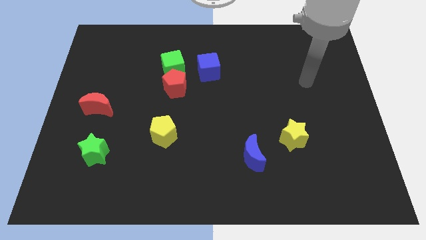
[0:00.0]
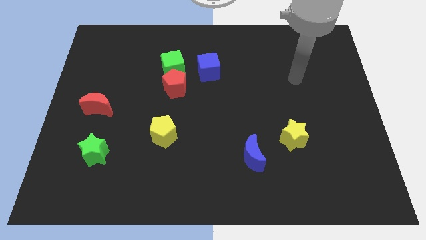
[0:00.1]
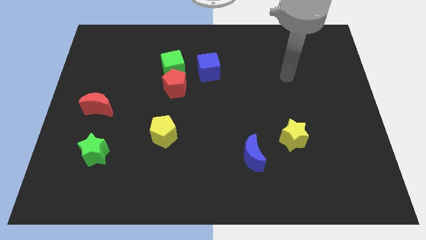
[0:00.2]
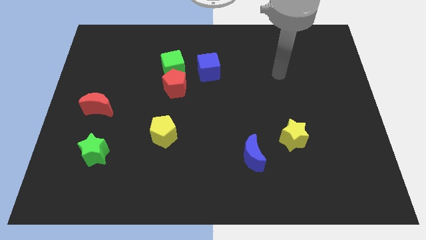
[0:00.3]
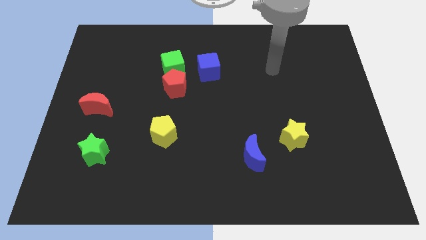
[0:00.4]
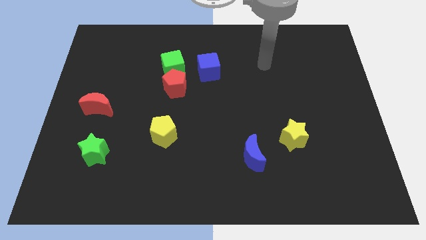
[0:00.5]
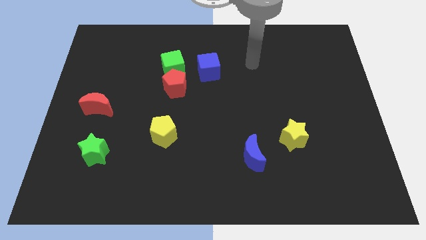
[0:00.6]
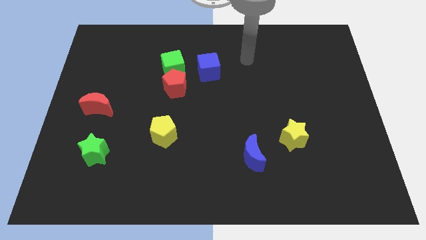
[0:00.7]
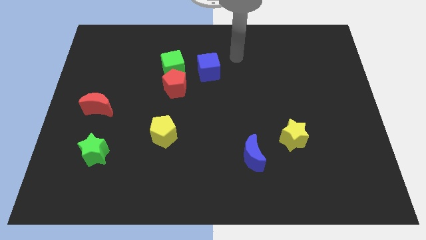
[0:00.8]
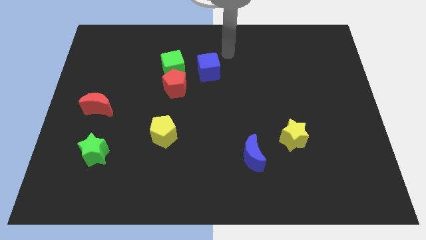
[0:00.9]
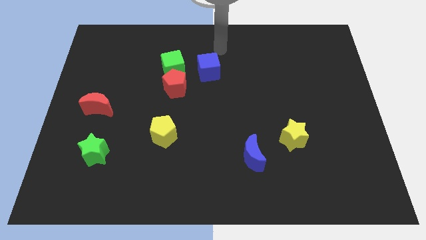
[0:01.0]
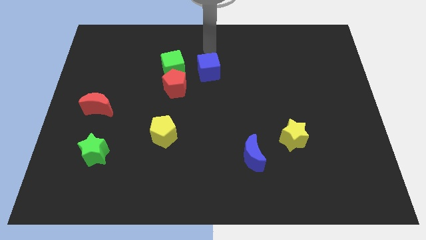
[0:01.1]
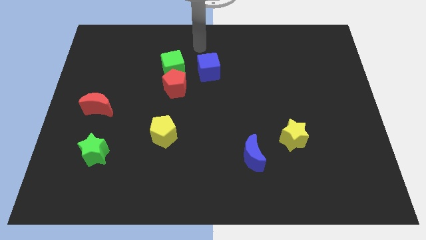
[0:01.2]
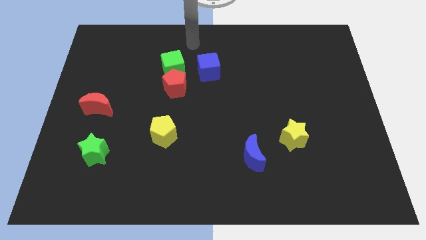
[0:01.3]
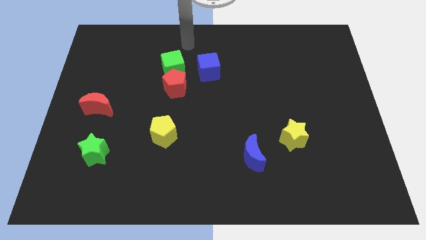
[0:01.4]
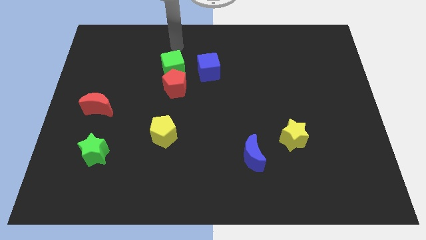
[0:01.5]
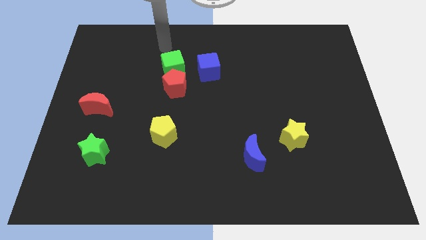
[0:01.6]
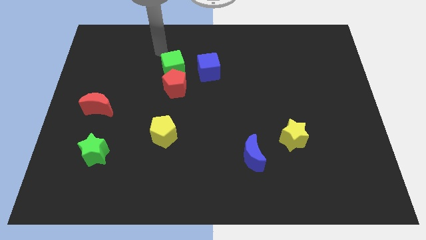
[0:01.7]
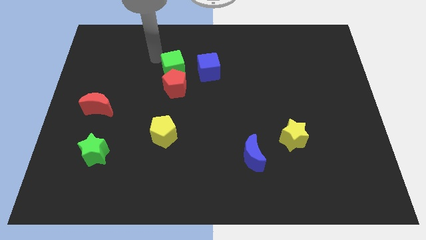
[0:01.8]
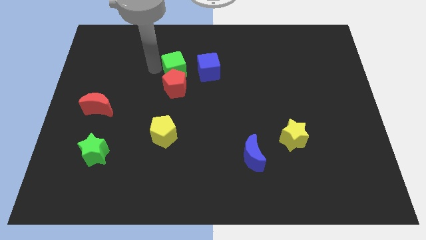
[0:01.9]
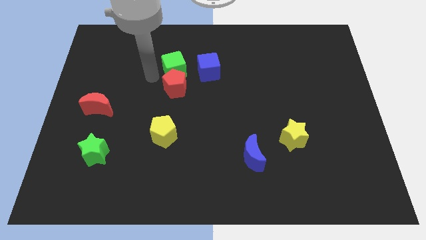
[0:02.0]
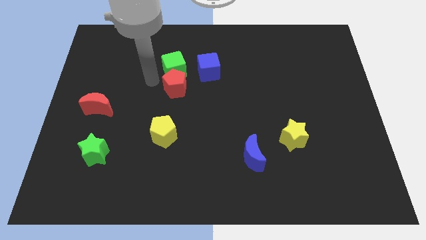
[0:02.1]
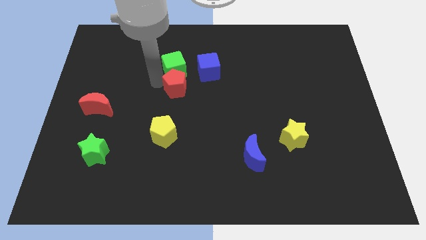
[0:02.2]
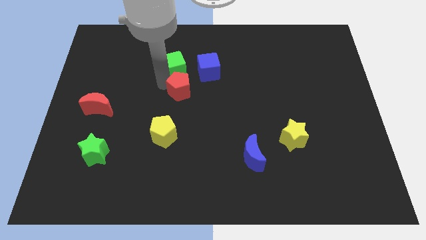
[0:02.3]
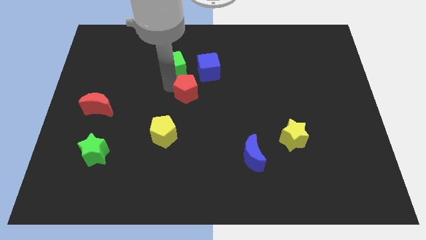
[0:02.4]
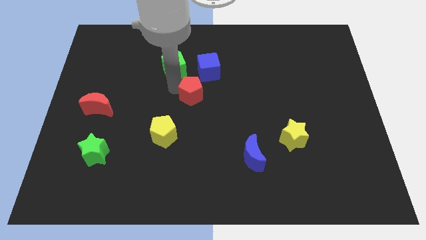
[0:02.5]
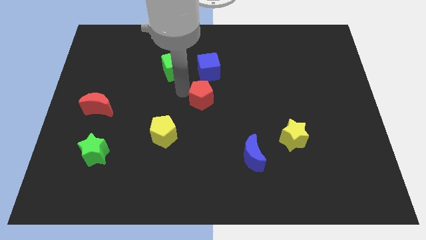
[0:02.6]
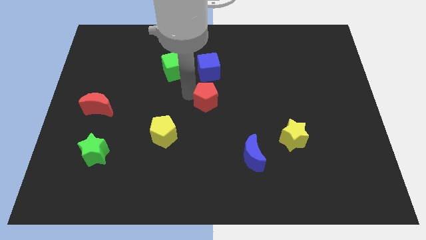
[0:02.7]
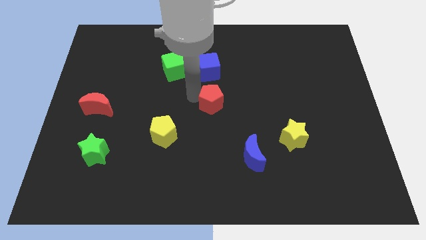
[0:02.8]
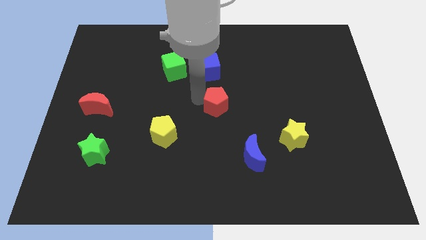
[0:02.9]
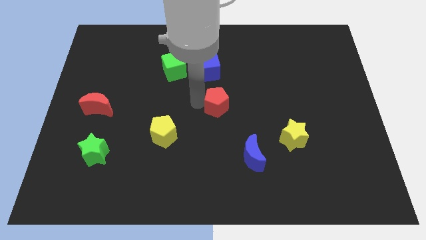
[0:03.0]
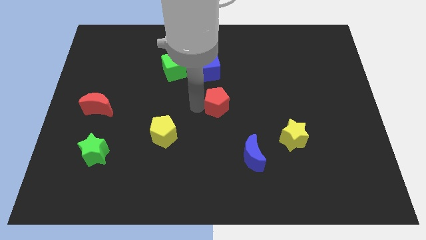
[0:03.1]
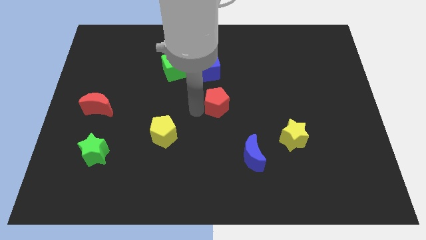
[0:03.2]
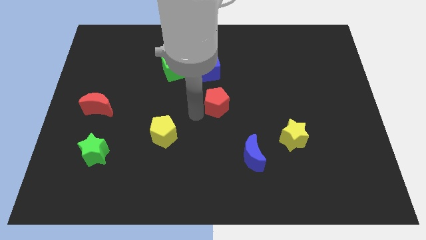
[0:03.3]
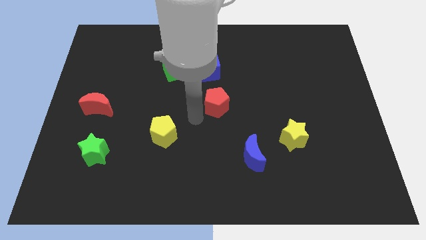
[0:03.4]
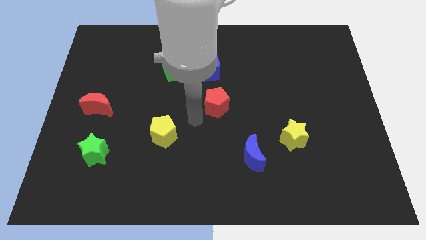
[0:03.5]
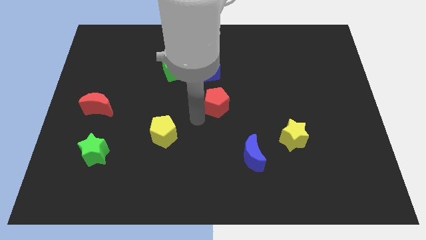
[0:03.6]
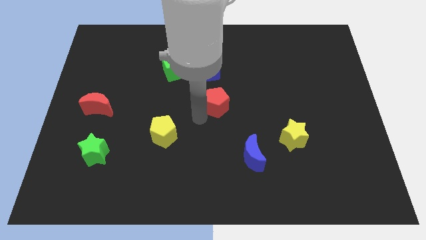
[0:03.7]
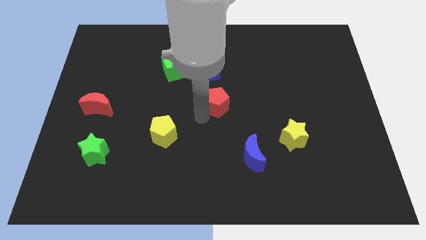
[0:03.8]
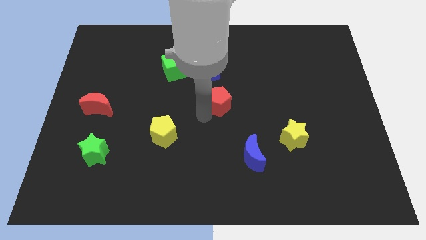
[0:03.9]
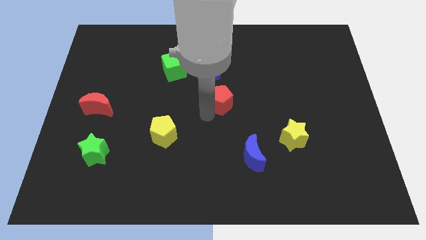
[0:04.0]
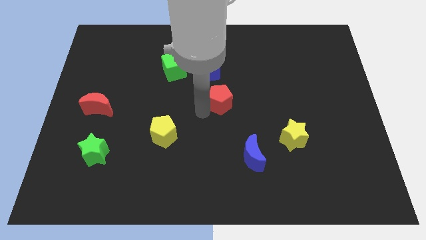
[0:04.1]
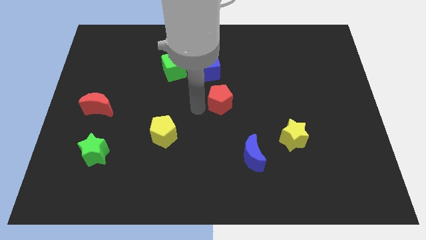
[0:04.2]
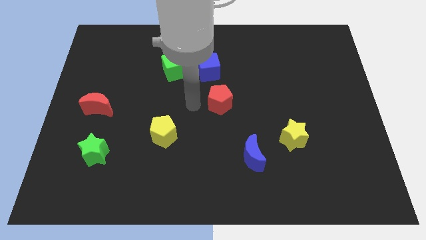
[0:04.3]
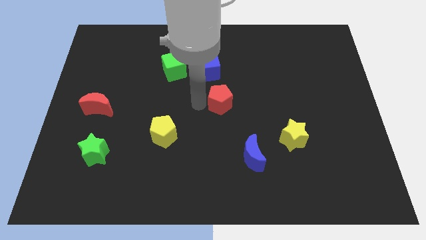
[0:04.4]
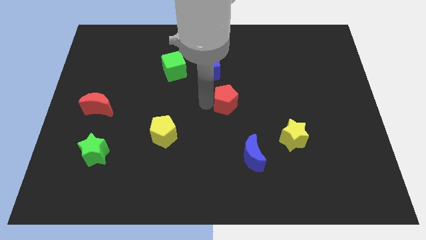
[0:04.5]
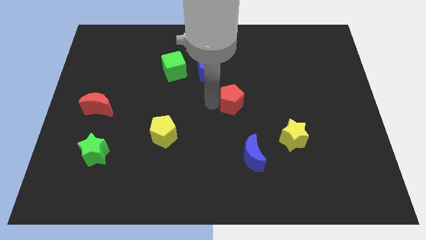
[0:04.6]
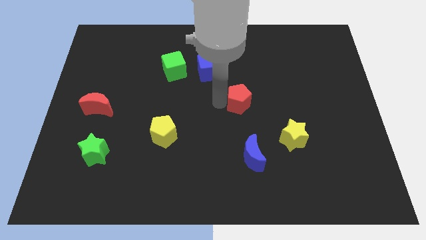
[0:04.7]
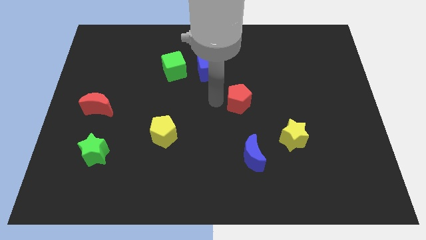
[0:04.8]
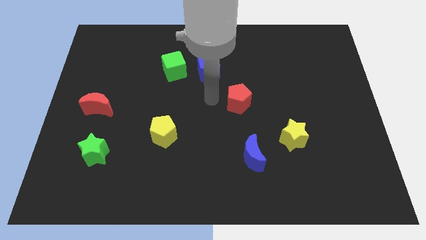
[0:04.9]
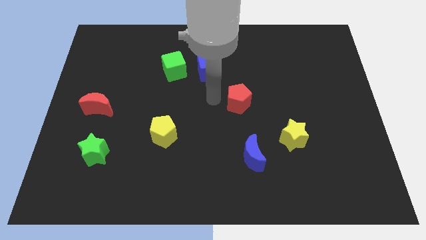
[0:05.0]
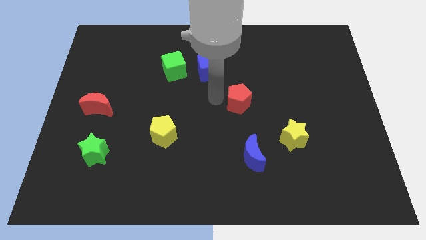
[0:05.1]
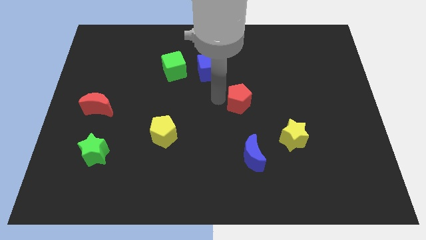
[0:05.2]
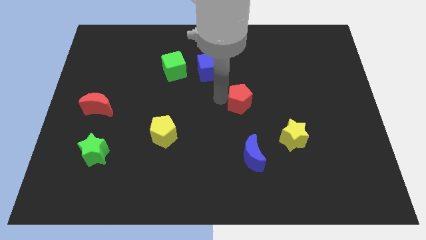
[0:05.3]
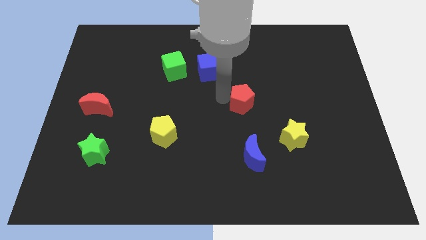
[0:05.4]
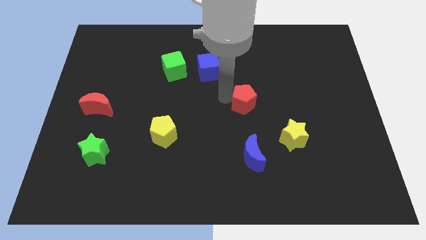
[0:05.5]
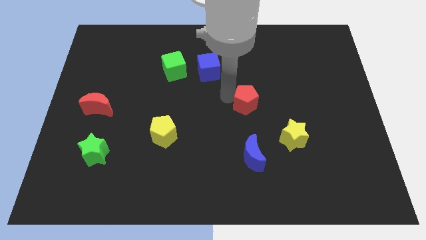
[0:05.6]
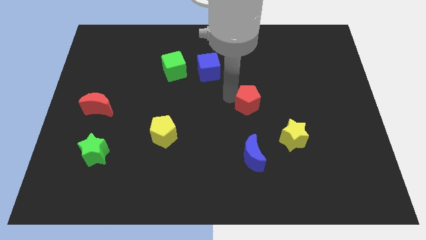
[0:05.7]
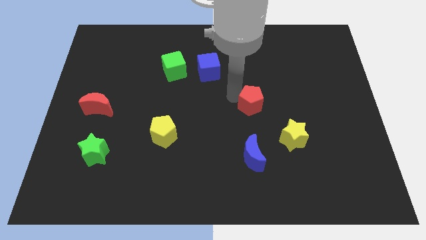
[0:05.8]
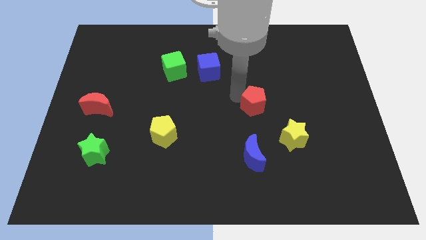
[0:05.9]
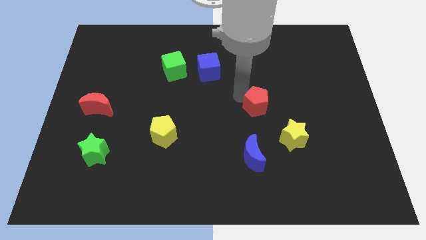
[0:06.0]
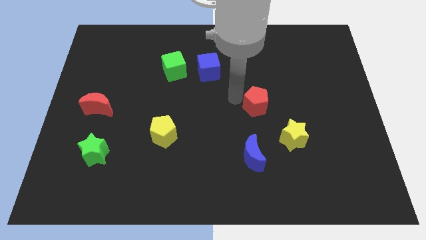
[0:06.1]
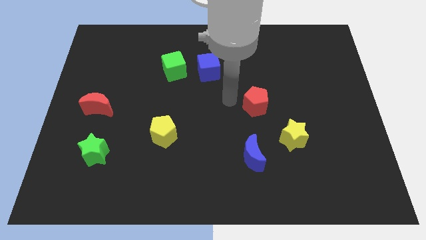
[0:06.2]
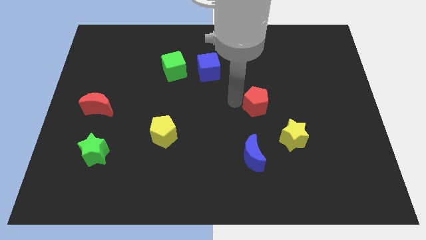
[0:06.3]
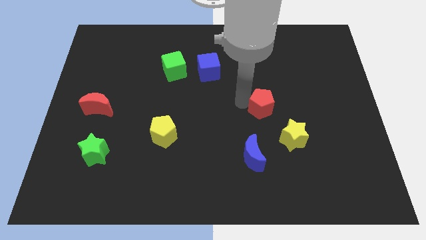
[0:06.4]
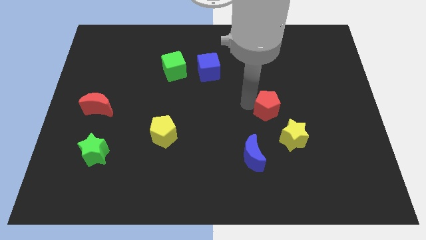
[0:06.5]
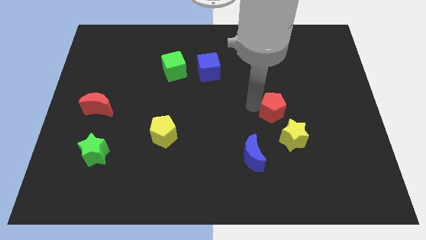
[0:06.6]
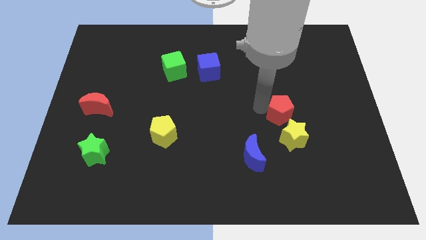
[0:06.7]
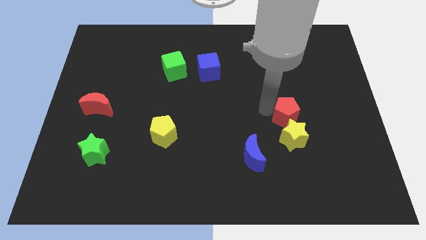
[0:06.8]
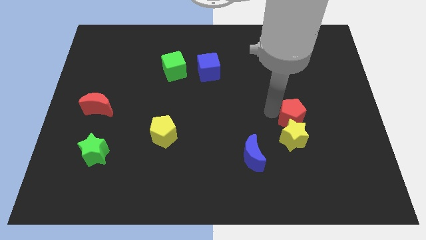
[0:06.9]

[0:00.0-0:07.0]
move the red pentagon to the top right side of the yellow star

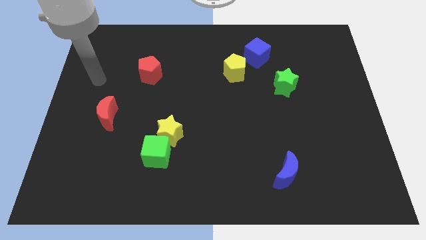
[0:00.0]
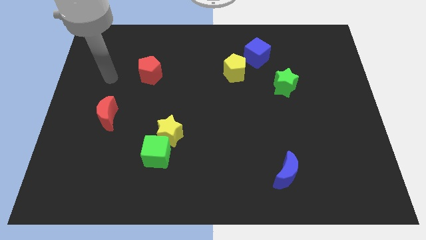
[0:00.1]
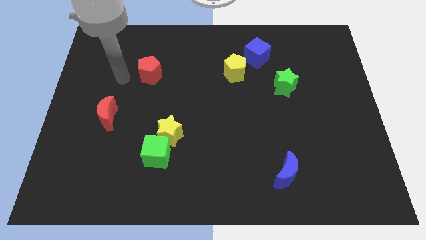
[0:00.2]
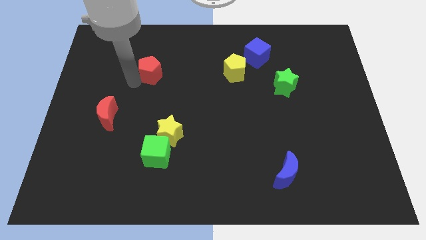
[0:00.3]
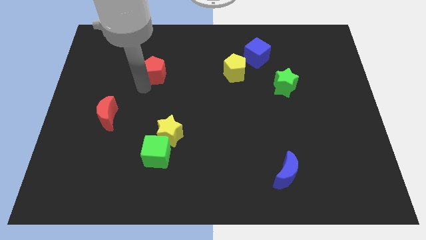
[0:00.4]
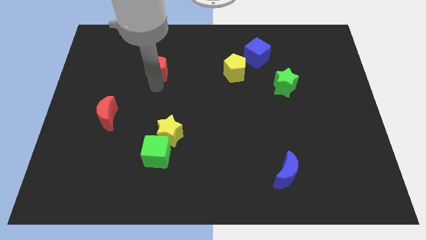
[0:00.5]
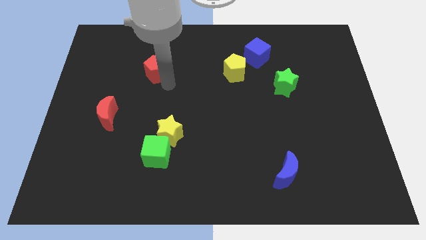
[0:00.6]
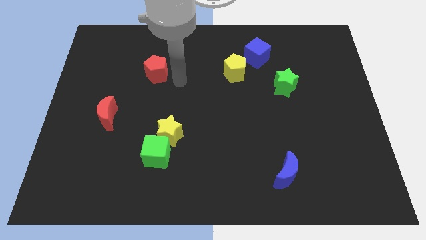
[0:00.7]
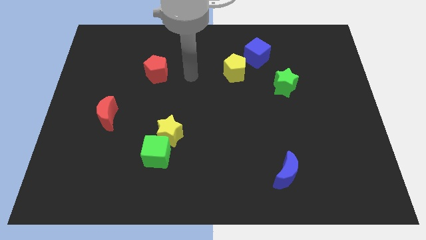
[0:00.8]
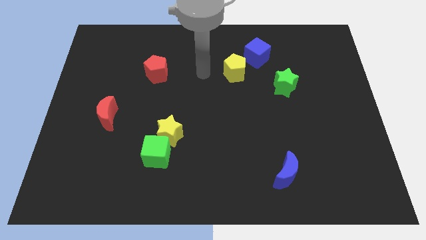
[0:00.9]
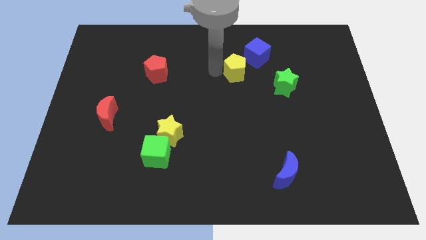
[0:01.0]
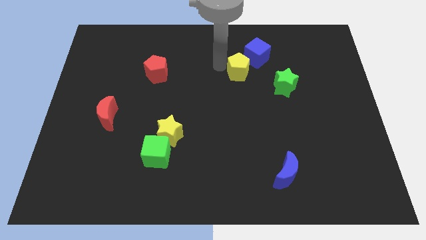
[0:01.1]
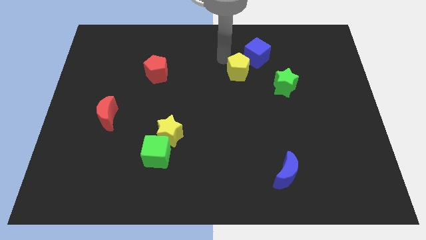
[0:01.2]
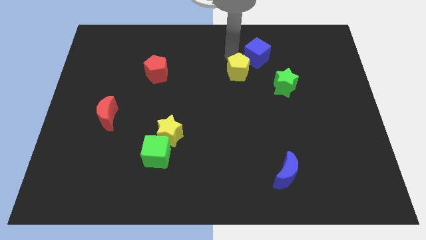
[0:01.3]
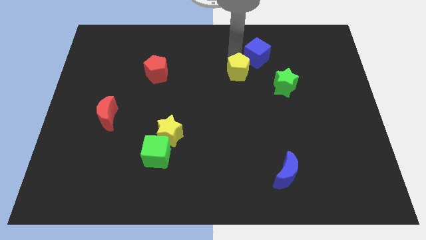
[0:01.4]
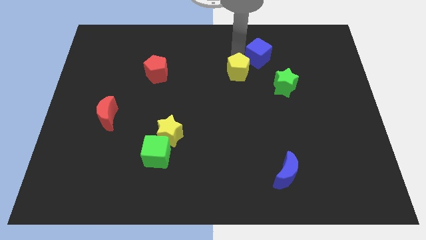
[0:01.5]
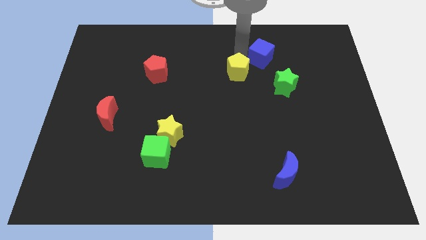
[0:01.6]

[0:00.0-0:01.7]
move the blue cube to the top of the green star
